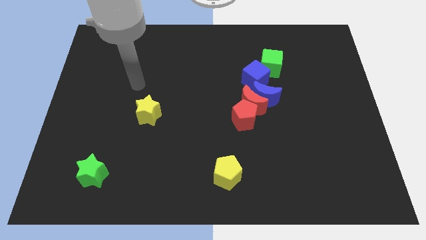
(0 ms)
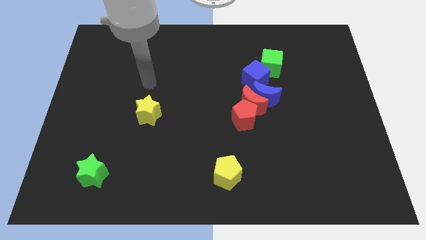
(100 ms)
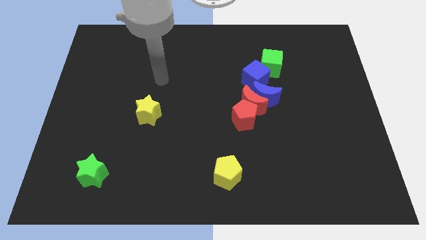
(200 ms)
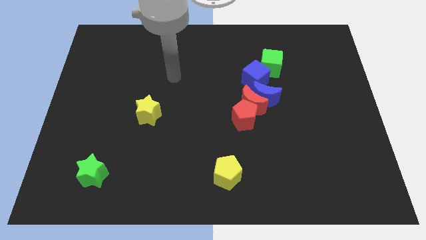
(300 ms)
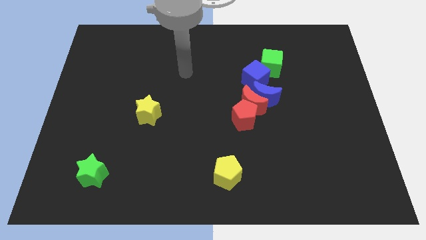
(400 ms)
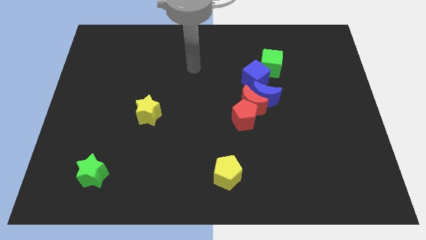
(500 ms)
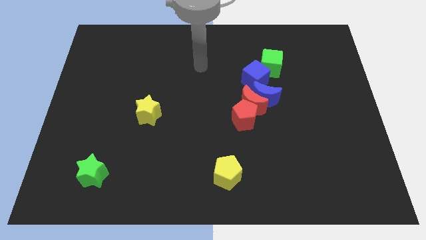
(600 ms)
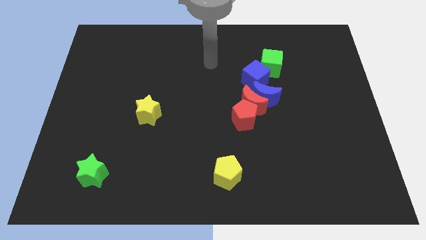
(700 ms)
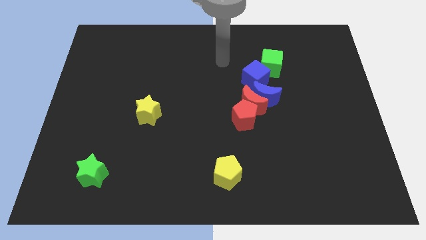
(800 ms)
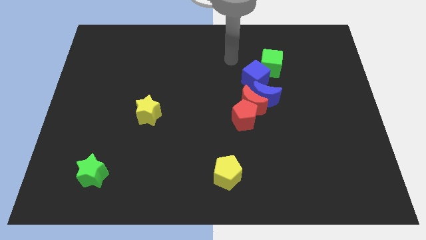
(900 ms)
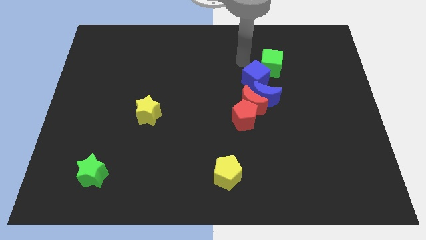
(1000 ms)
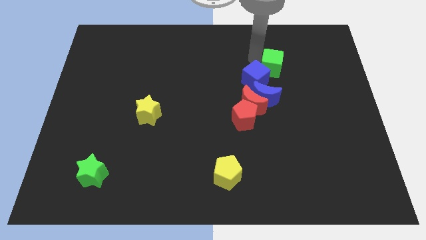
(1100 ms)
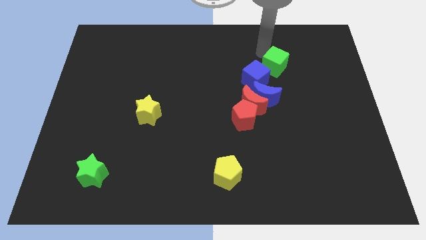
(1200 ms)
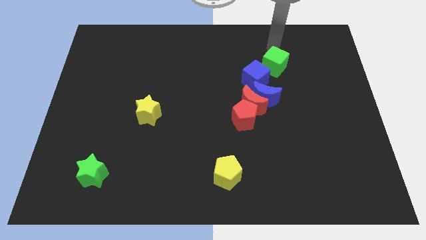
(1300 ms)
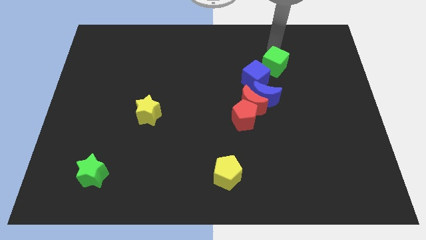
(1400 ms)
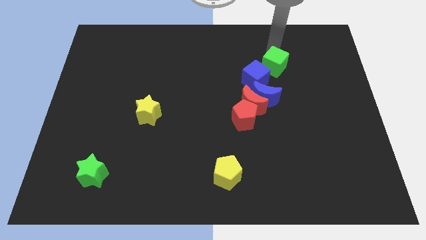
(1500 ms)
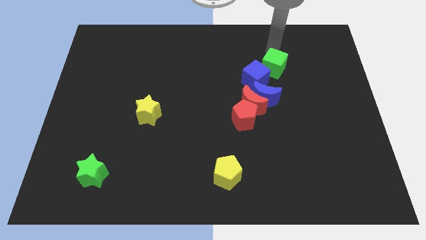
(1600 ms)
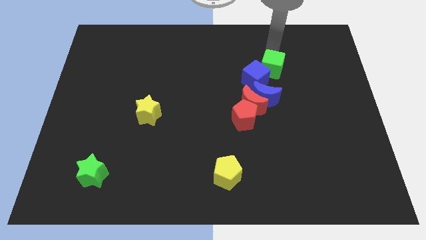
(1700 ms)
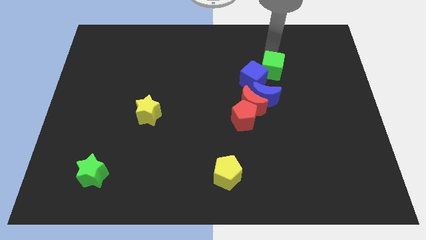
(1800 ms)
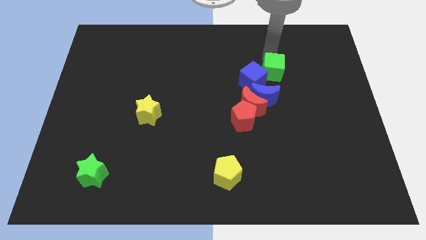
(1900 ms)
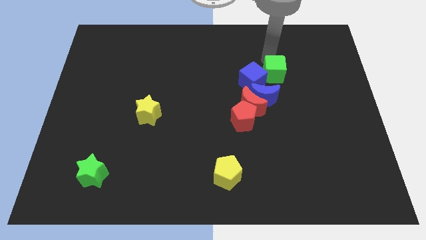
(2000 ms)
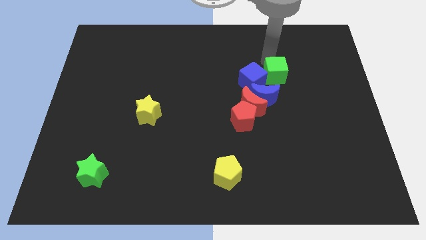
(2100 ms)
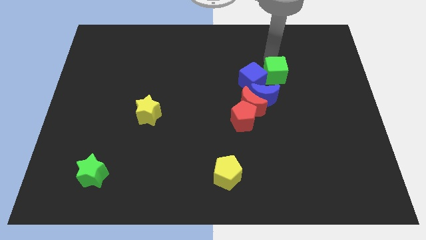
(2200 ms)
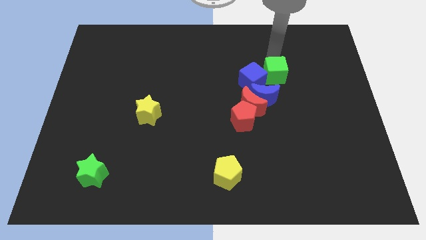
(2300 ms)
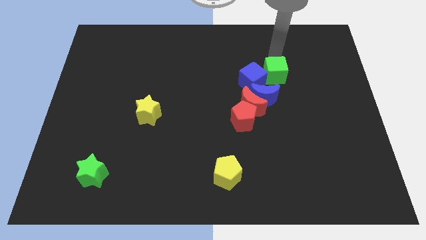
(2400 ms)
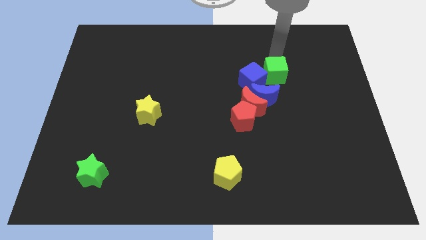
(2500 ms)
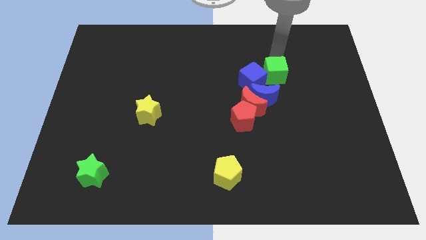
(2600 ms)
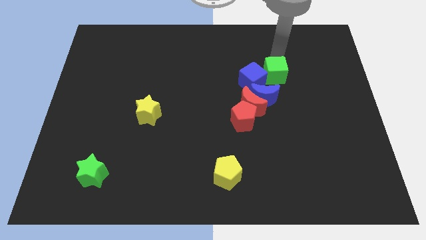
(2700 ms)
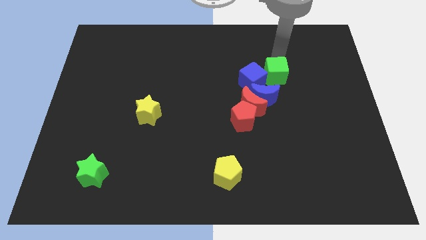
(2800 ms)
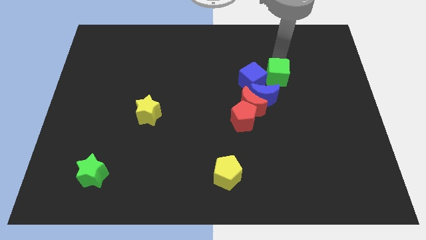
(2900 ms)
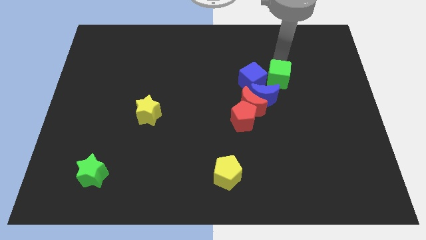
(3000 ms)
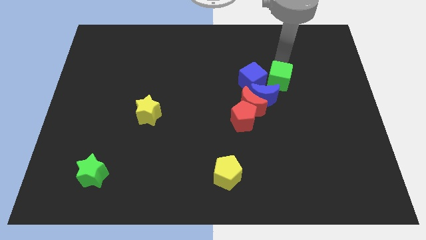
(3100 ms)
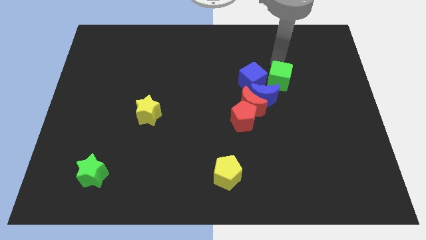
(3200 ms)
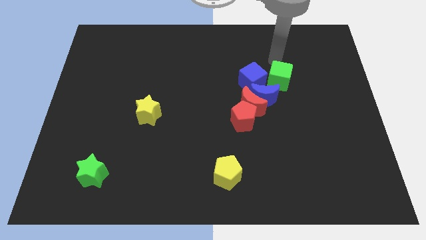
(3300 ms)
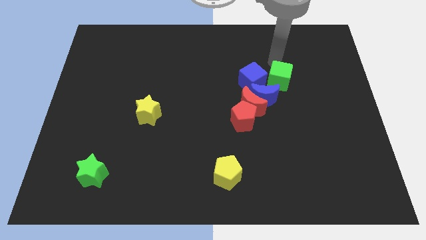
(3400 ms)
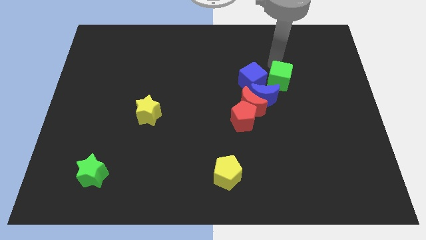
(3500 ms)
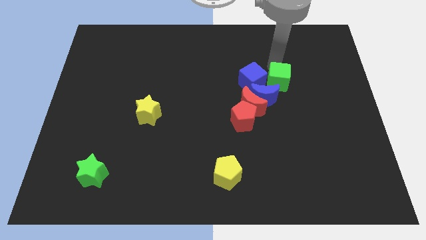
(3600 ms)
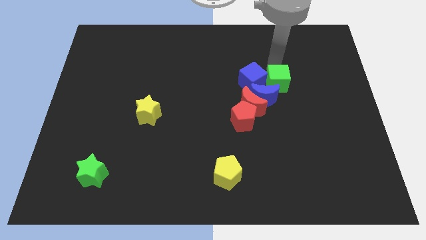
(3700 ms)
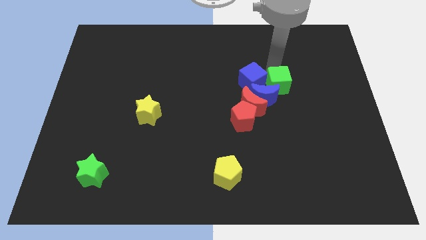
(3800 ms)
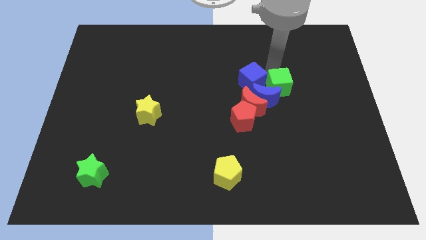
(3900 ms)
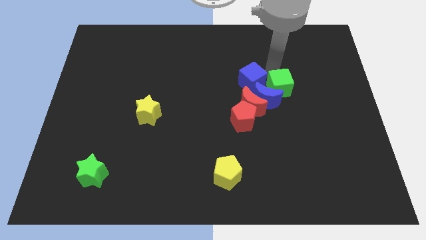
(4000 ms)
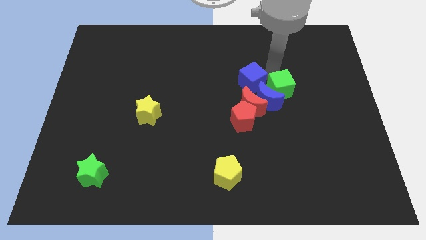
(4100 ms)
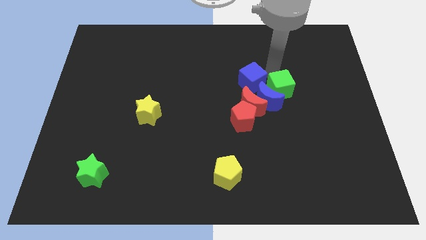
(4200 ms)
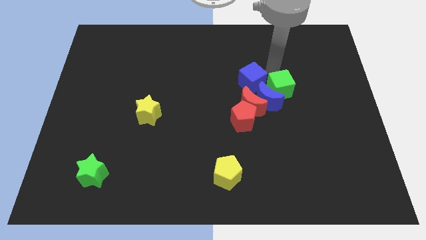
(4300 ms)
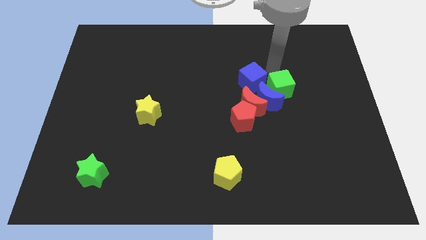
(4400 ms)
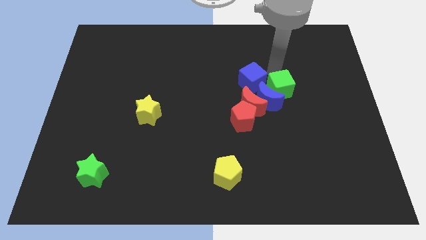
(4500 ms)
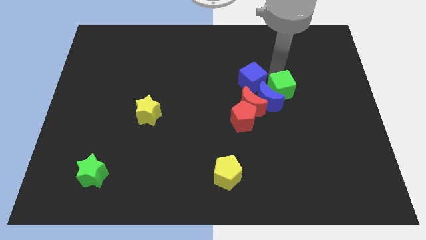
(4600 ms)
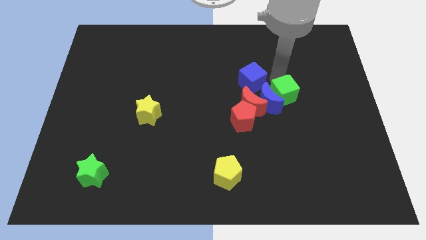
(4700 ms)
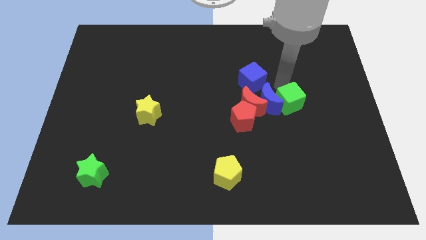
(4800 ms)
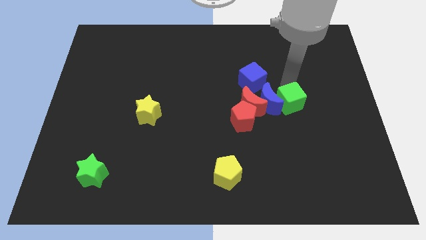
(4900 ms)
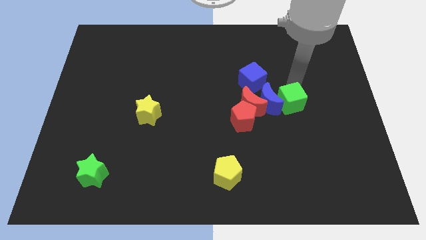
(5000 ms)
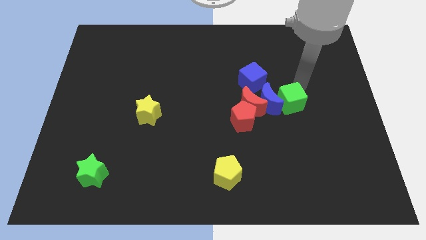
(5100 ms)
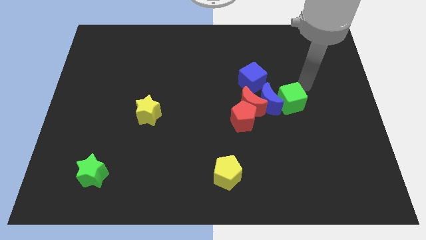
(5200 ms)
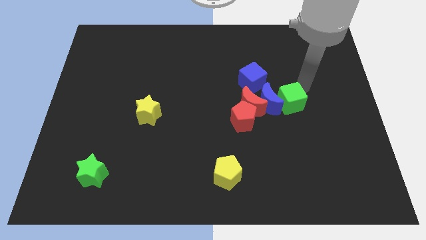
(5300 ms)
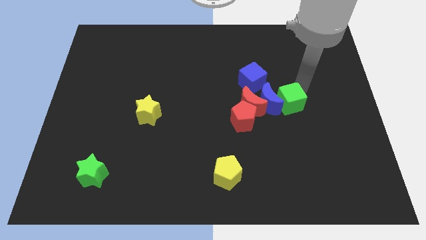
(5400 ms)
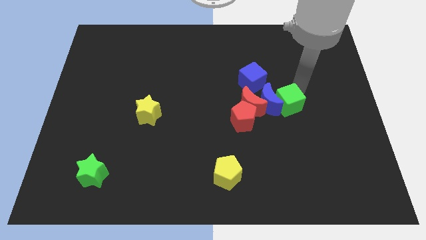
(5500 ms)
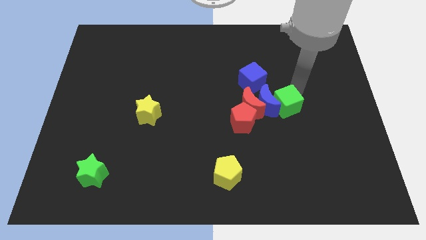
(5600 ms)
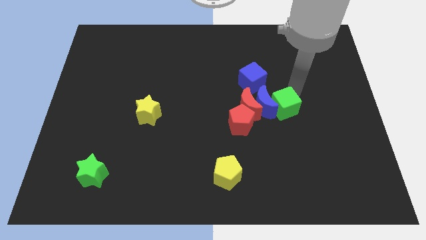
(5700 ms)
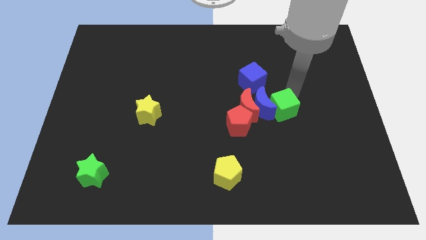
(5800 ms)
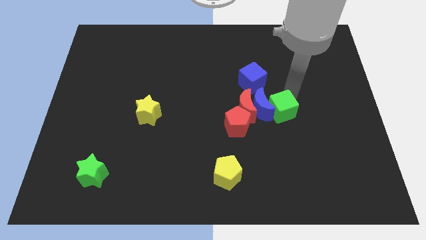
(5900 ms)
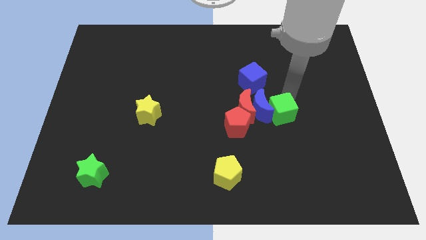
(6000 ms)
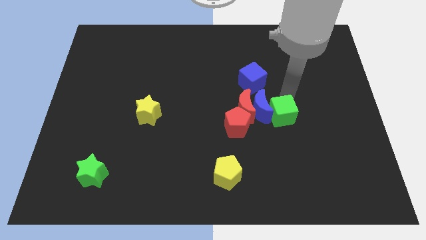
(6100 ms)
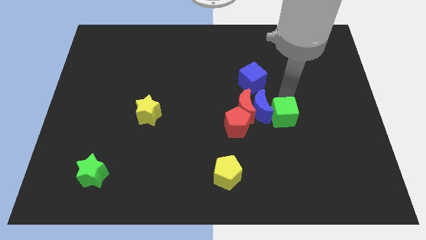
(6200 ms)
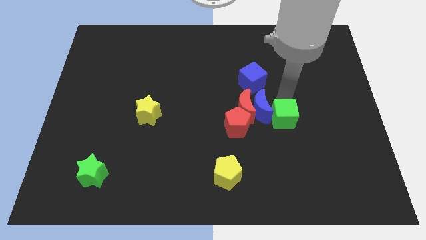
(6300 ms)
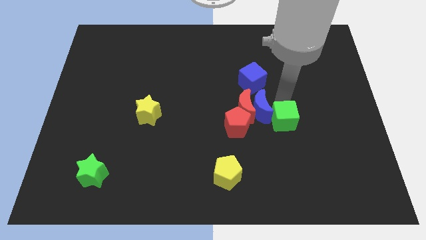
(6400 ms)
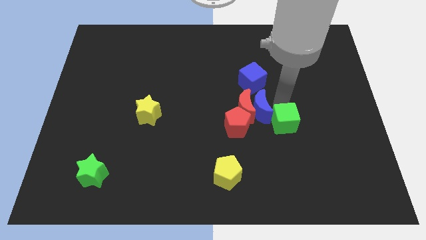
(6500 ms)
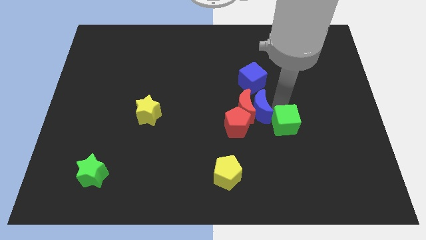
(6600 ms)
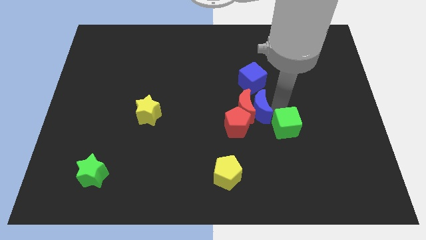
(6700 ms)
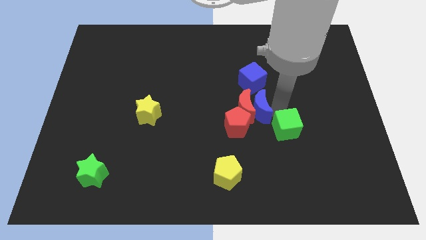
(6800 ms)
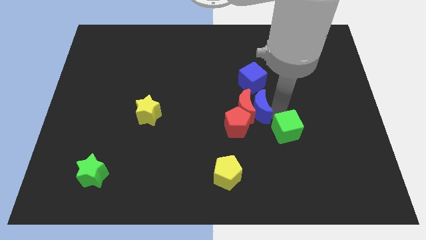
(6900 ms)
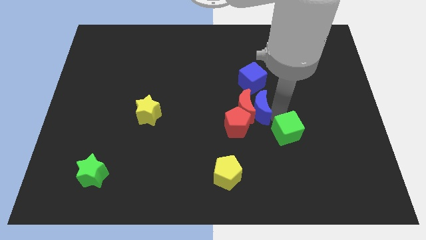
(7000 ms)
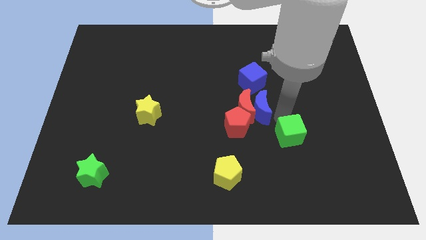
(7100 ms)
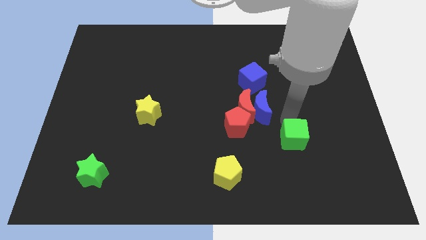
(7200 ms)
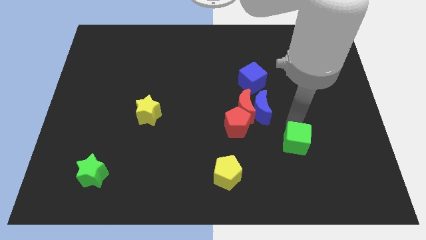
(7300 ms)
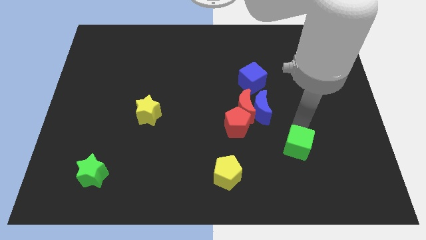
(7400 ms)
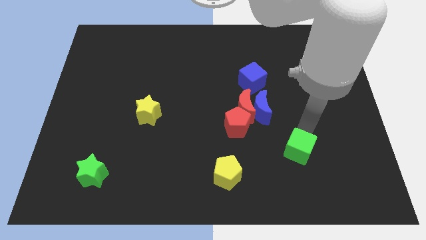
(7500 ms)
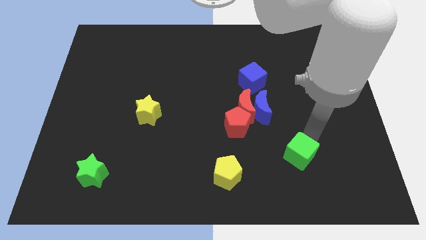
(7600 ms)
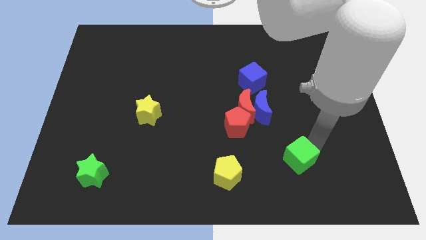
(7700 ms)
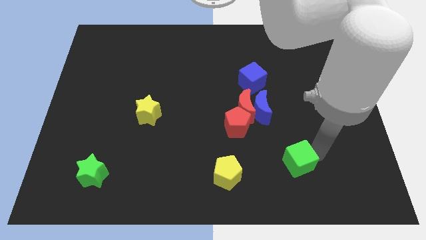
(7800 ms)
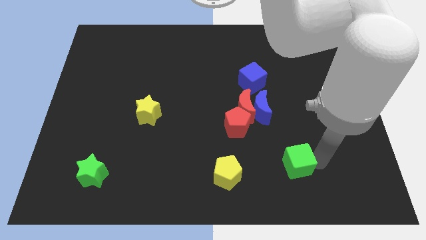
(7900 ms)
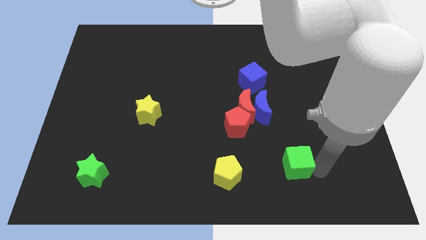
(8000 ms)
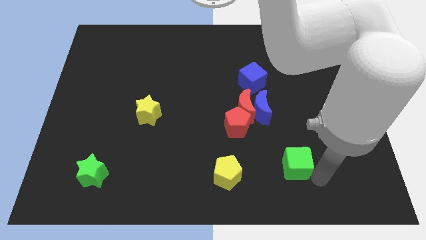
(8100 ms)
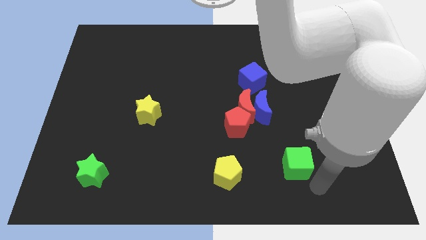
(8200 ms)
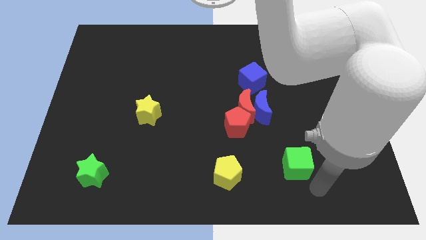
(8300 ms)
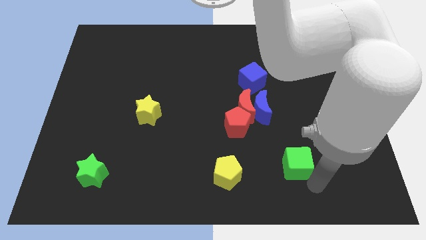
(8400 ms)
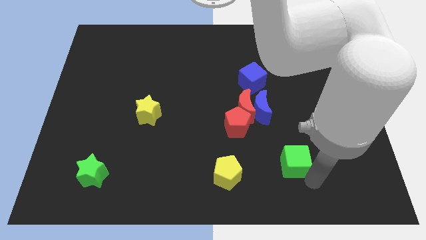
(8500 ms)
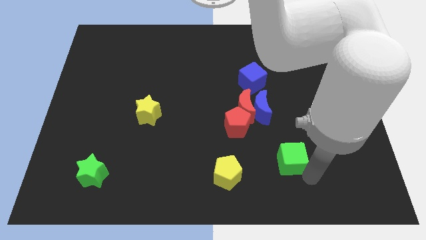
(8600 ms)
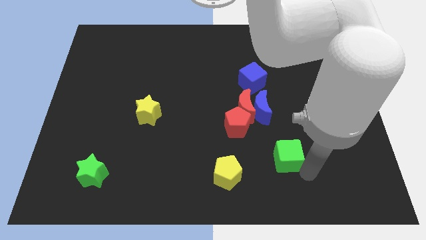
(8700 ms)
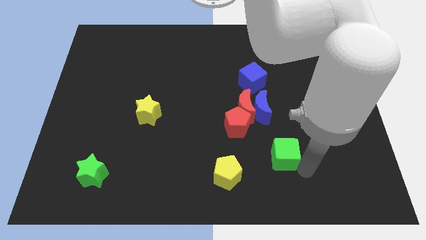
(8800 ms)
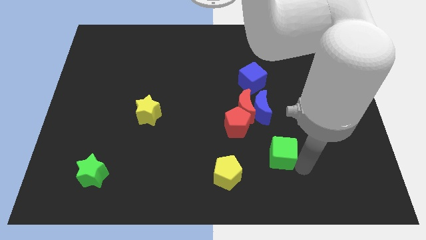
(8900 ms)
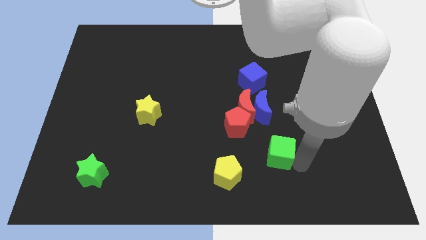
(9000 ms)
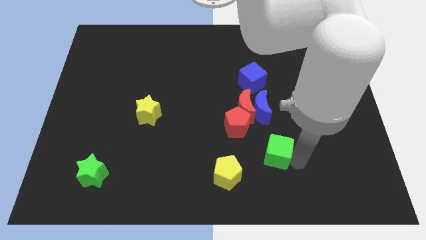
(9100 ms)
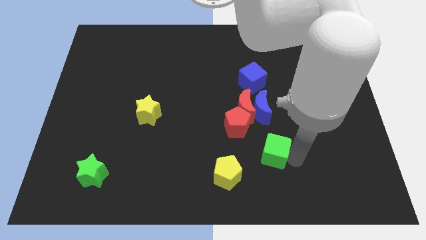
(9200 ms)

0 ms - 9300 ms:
push the green cube to the top right side of the yellow pentagon
